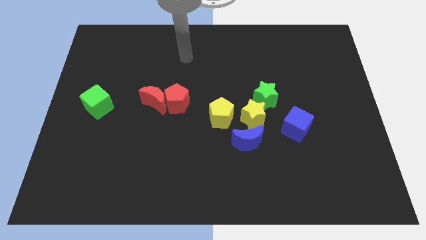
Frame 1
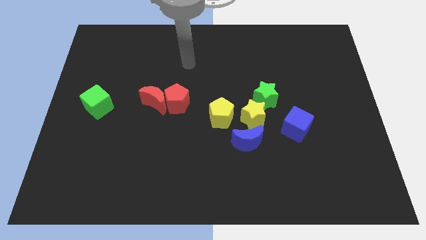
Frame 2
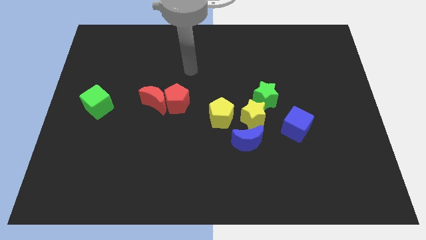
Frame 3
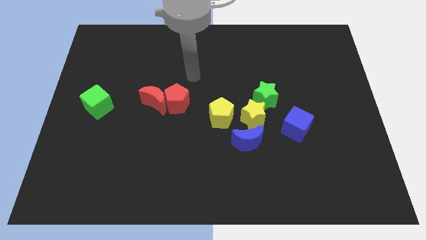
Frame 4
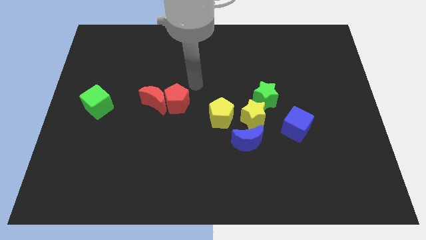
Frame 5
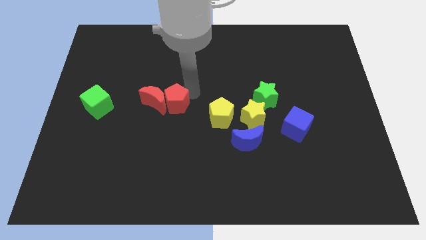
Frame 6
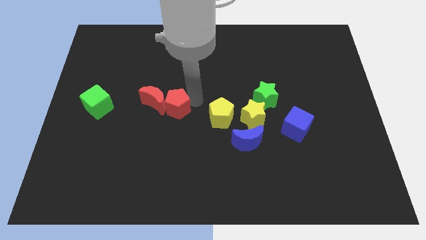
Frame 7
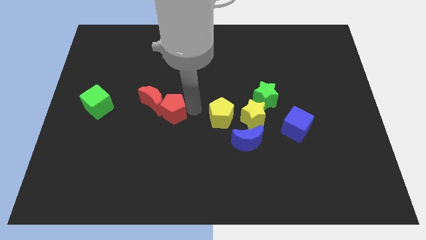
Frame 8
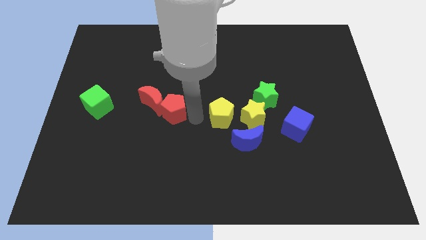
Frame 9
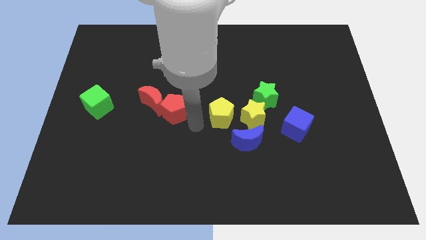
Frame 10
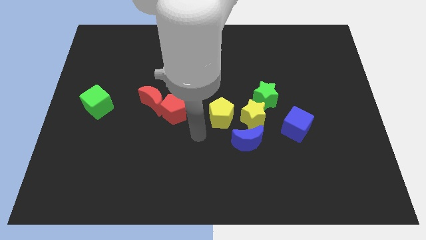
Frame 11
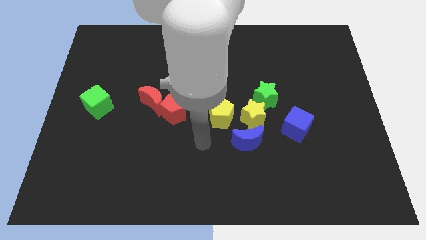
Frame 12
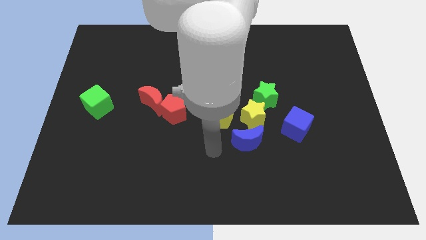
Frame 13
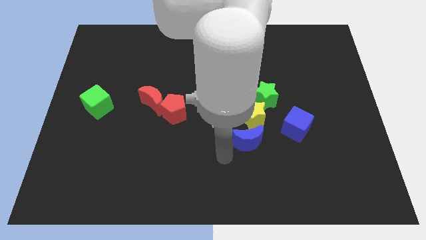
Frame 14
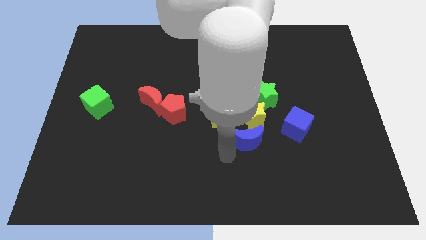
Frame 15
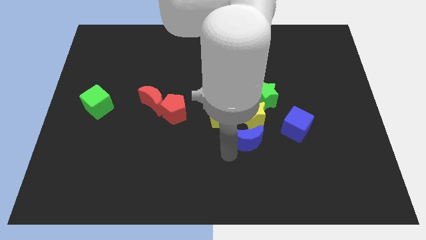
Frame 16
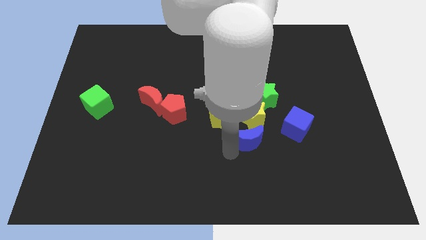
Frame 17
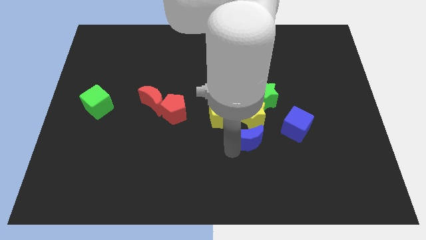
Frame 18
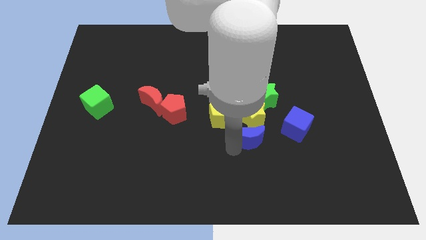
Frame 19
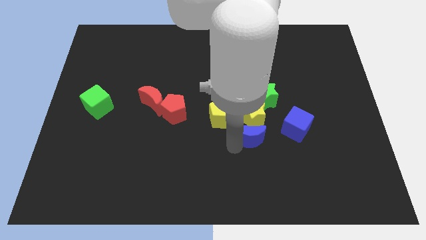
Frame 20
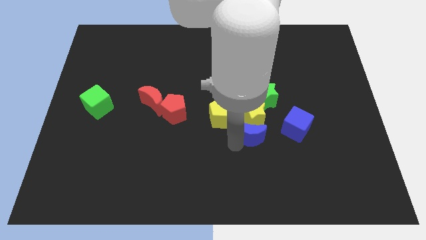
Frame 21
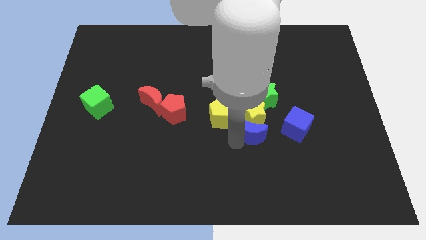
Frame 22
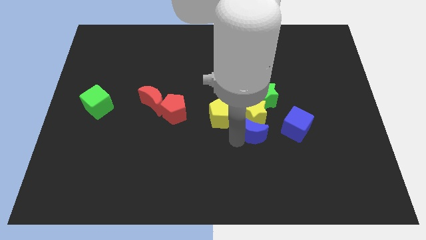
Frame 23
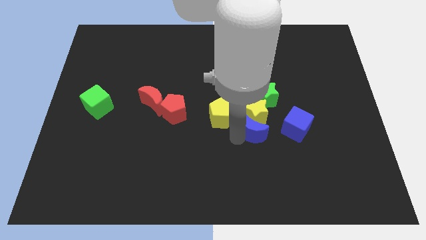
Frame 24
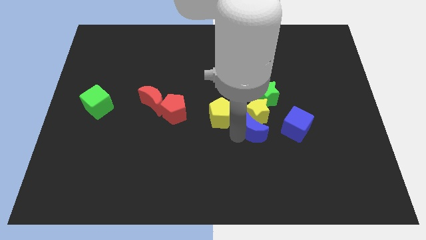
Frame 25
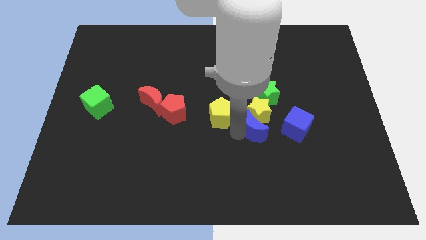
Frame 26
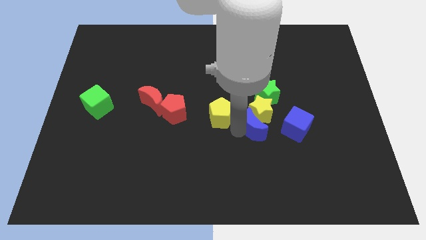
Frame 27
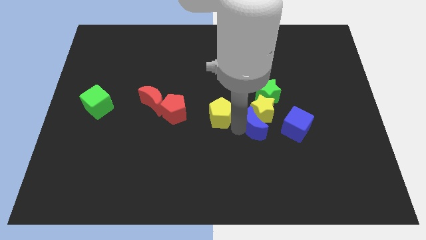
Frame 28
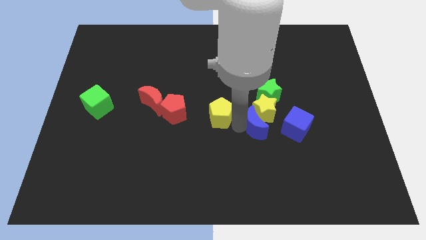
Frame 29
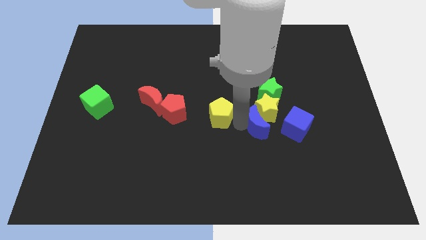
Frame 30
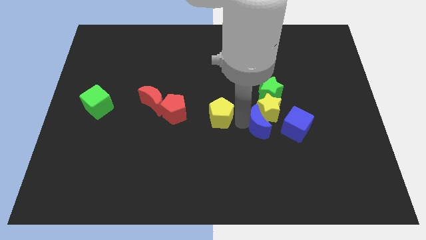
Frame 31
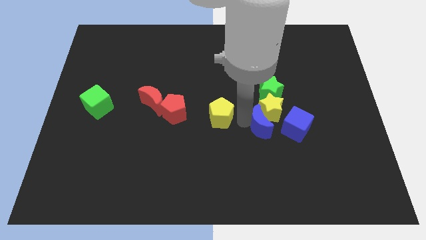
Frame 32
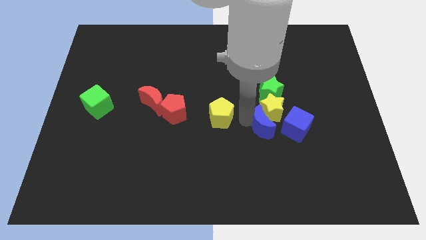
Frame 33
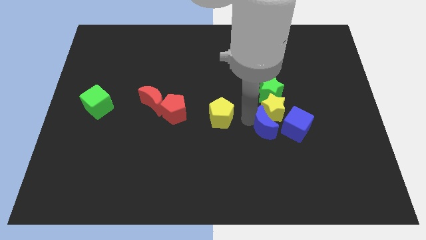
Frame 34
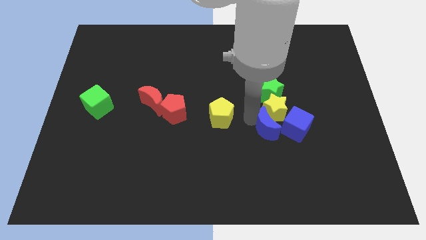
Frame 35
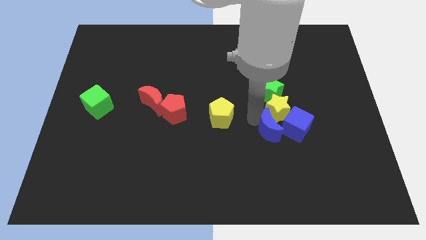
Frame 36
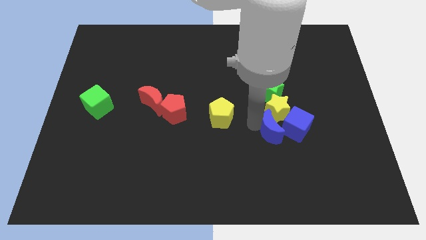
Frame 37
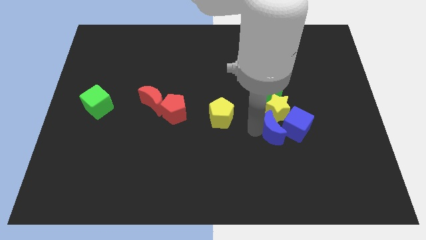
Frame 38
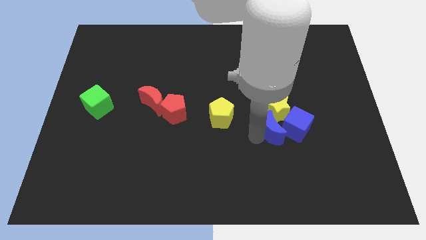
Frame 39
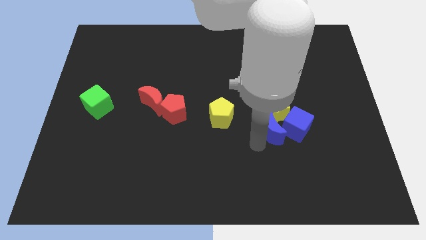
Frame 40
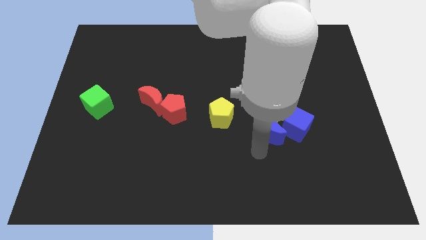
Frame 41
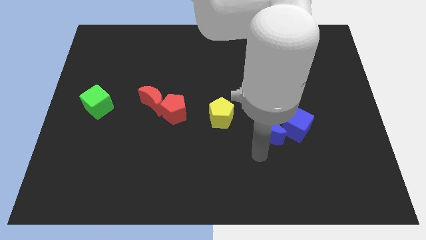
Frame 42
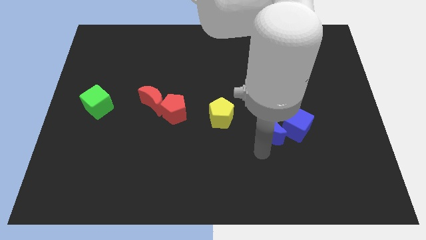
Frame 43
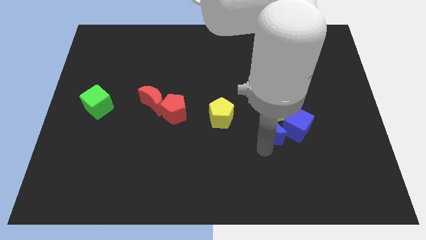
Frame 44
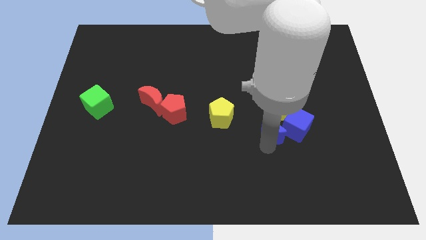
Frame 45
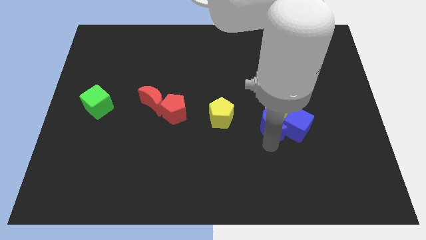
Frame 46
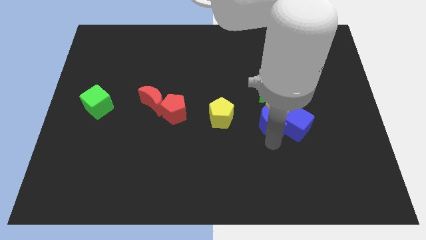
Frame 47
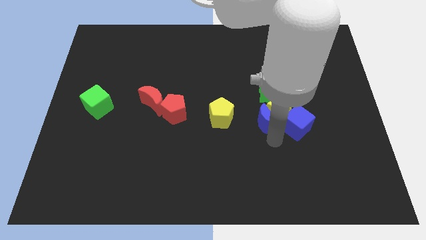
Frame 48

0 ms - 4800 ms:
move the blue moon a little up and right diagonally

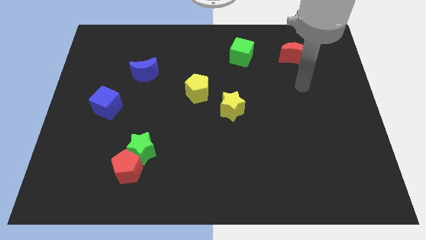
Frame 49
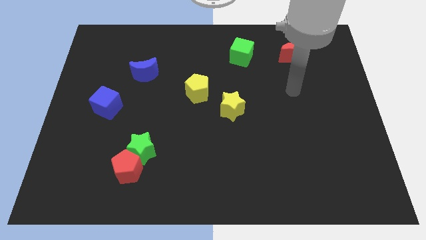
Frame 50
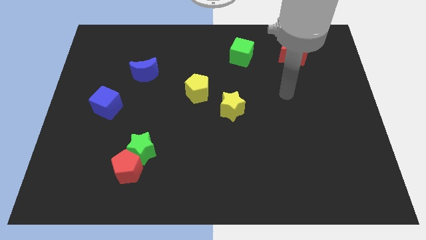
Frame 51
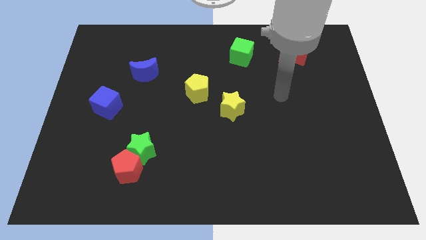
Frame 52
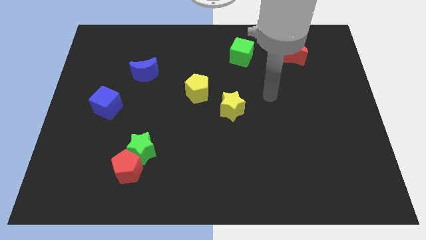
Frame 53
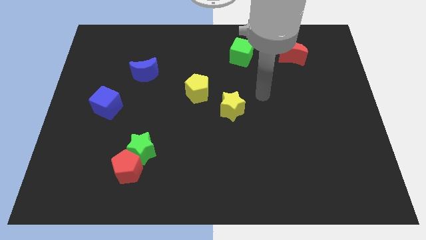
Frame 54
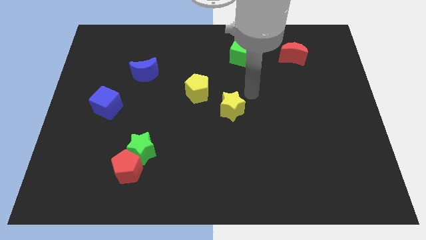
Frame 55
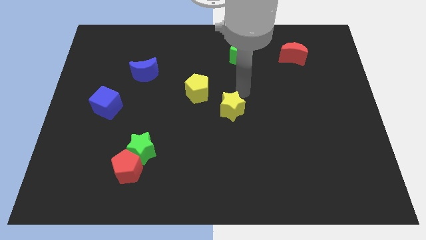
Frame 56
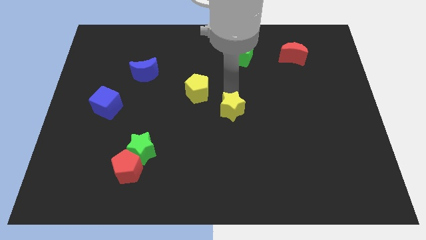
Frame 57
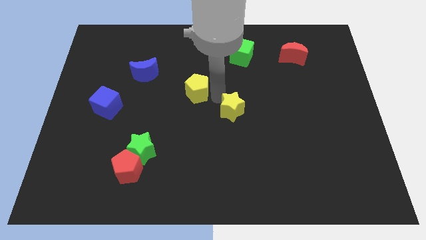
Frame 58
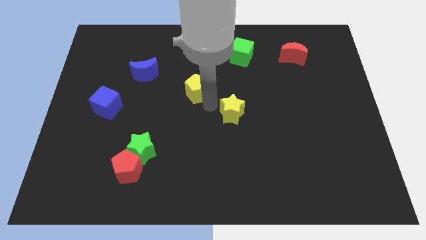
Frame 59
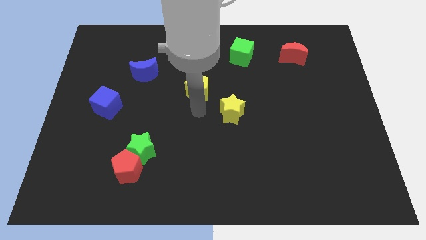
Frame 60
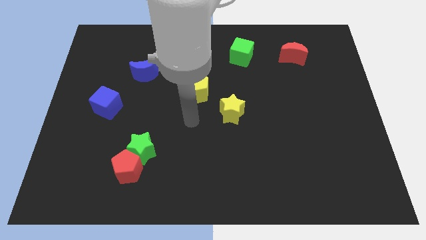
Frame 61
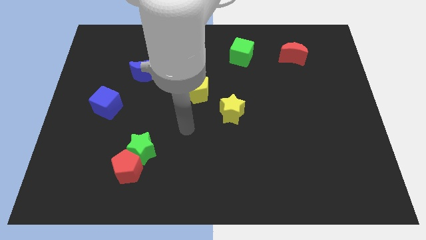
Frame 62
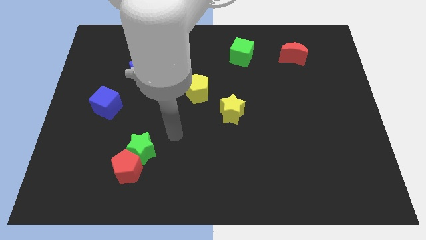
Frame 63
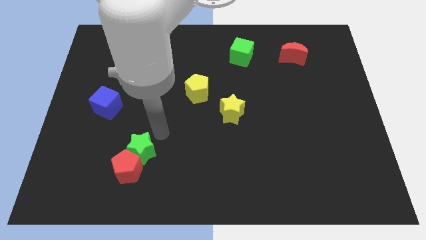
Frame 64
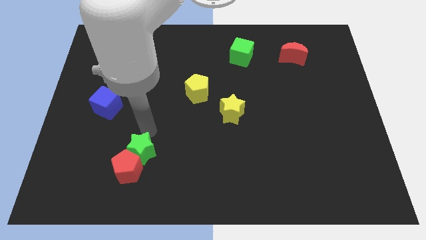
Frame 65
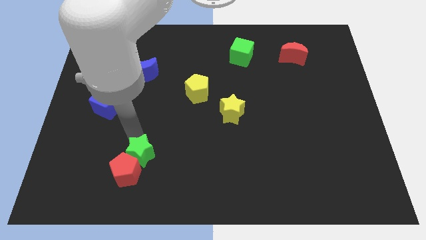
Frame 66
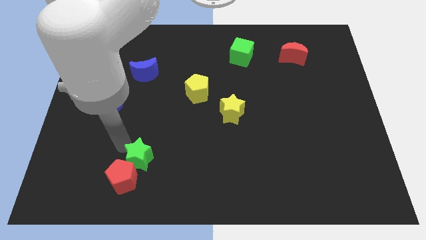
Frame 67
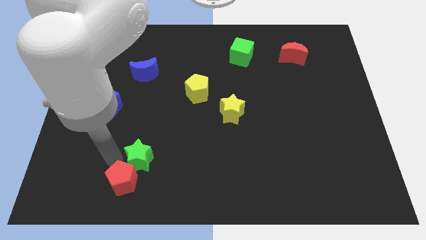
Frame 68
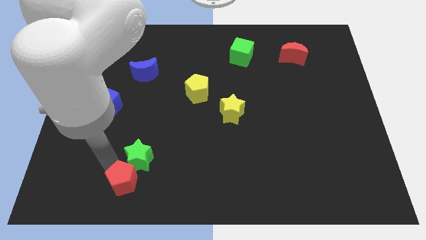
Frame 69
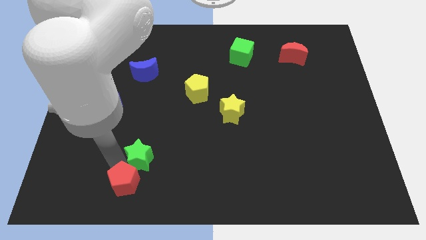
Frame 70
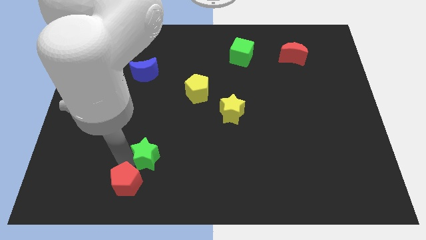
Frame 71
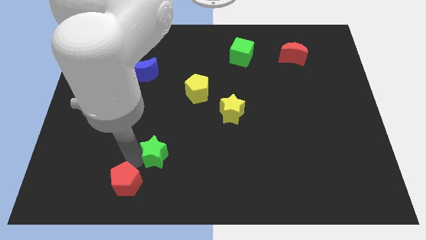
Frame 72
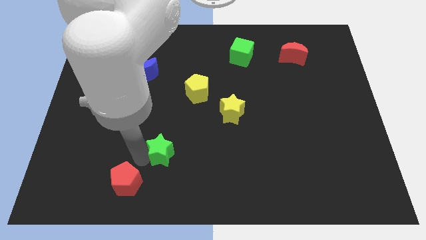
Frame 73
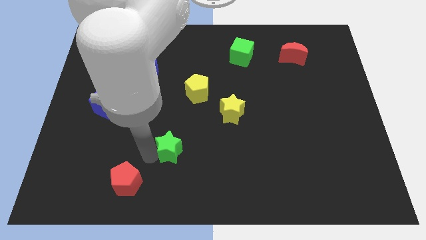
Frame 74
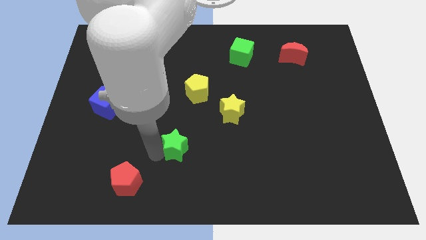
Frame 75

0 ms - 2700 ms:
move the green star right a little

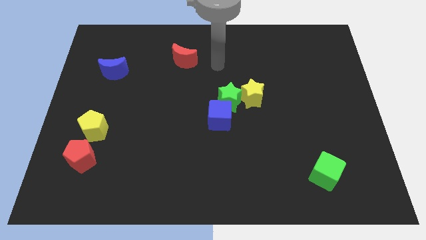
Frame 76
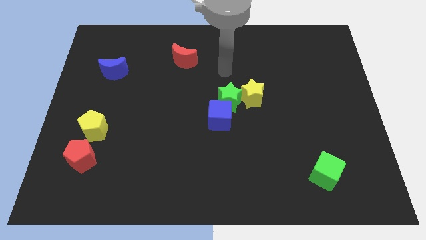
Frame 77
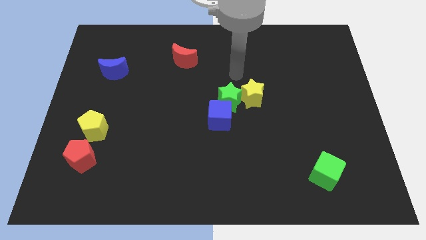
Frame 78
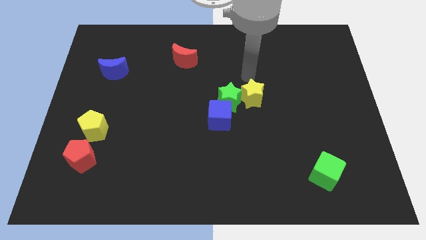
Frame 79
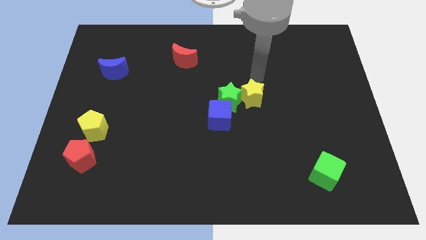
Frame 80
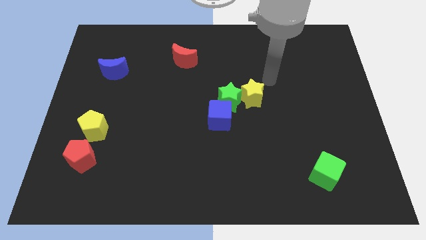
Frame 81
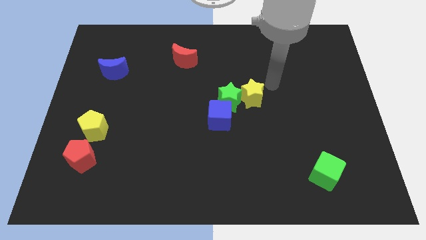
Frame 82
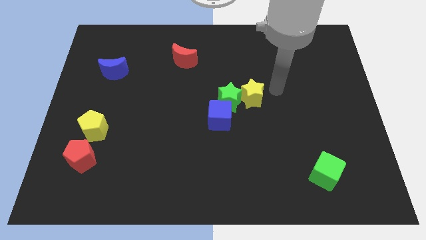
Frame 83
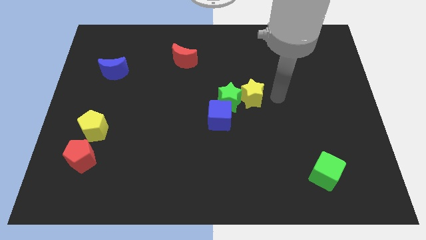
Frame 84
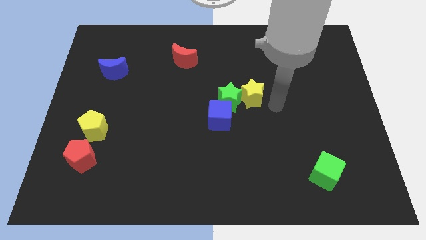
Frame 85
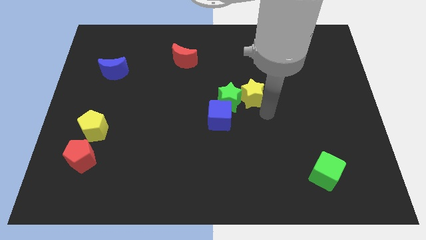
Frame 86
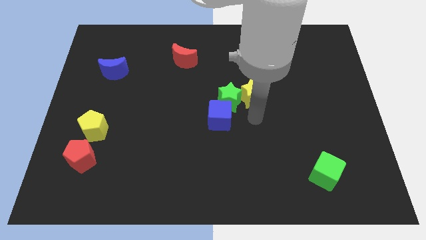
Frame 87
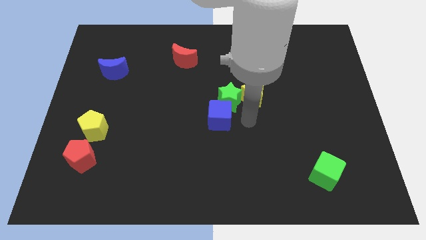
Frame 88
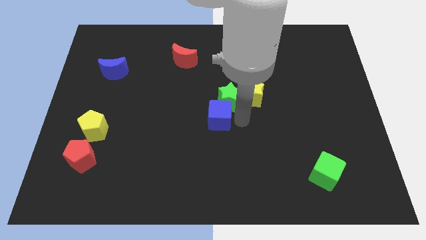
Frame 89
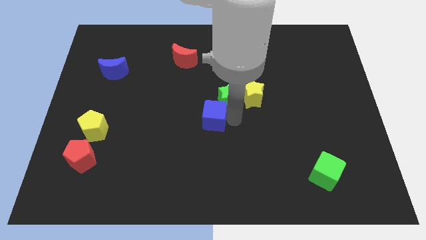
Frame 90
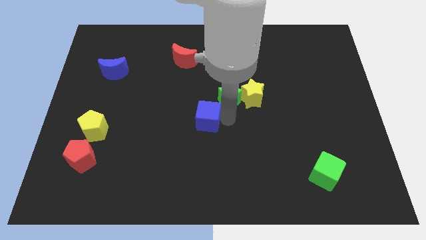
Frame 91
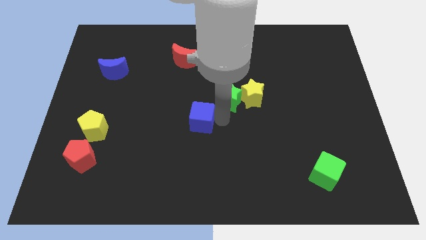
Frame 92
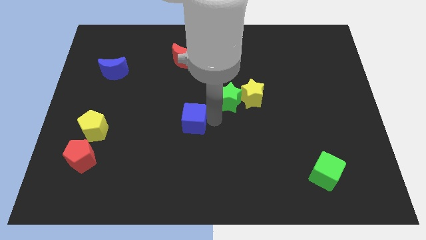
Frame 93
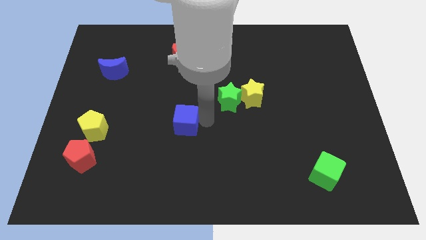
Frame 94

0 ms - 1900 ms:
slightly push the blue cube left
